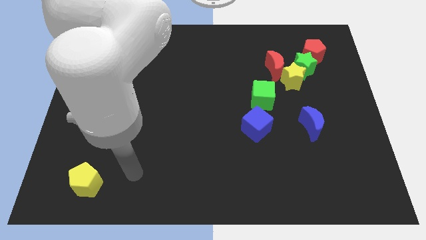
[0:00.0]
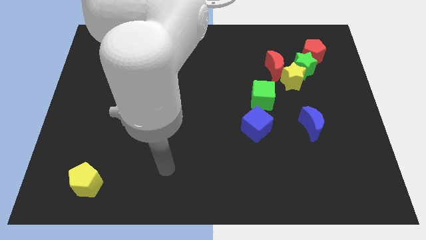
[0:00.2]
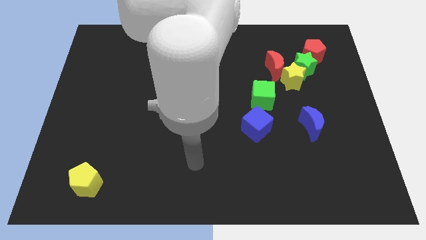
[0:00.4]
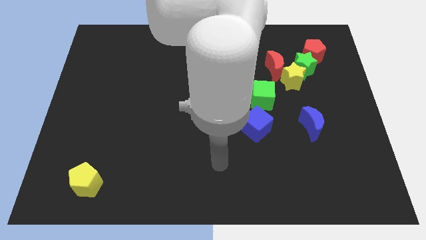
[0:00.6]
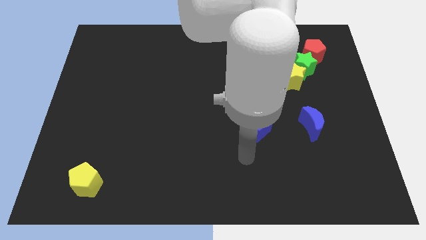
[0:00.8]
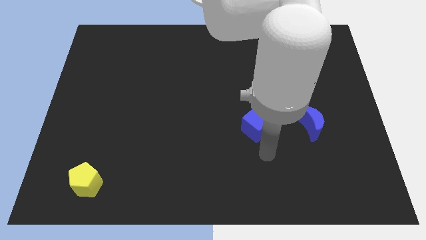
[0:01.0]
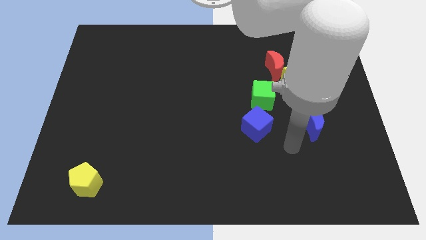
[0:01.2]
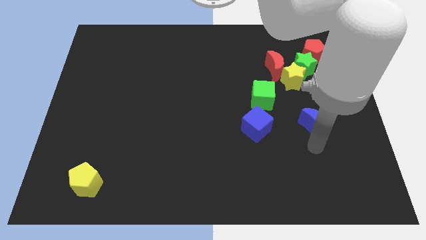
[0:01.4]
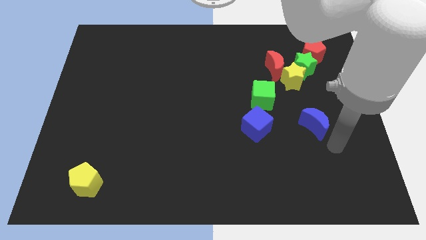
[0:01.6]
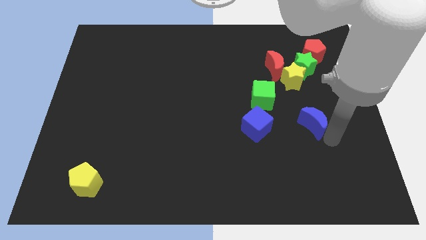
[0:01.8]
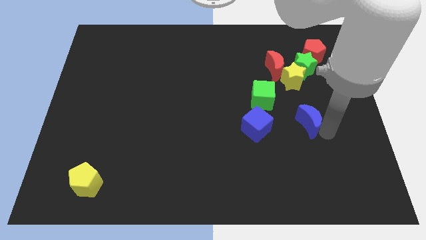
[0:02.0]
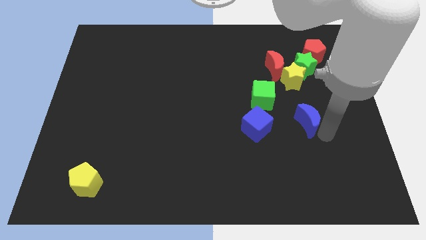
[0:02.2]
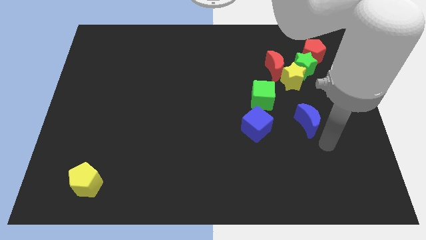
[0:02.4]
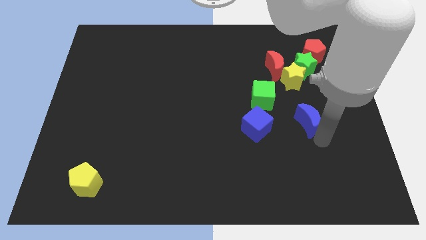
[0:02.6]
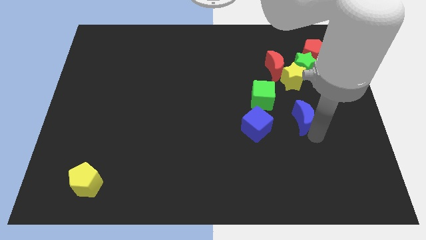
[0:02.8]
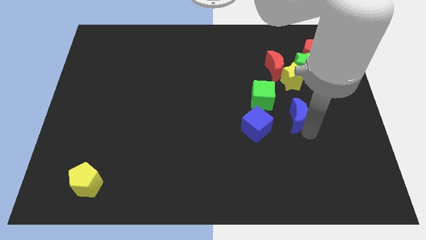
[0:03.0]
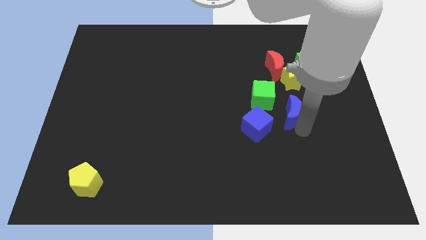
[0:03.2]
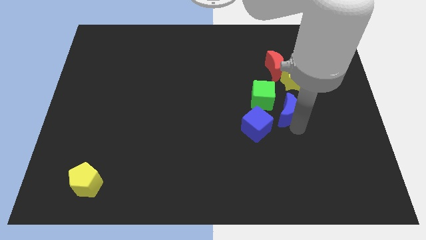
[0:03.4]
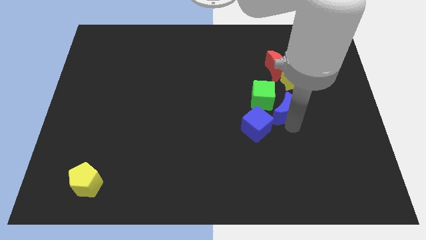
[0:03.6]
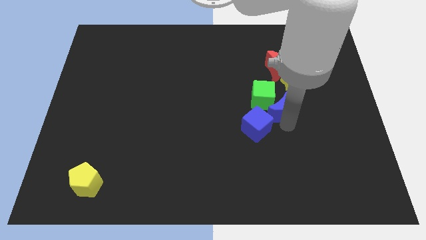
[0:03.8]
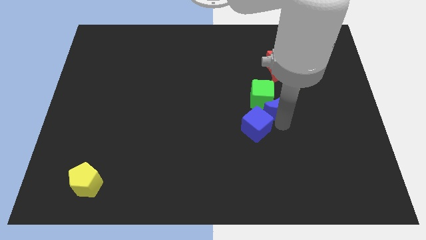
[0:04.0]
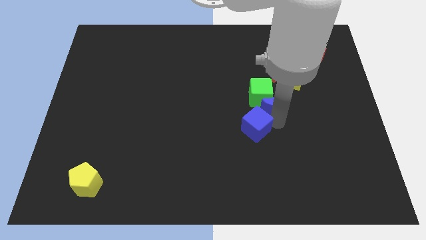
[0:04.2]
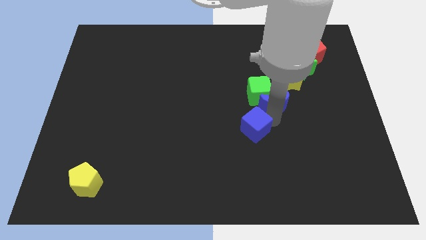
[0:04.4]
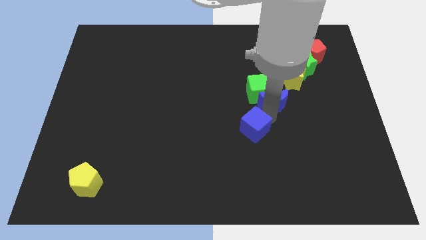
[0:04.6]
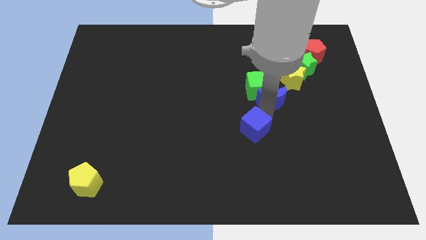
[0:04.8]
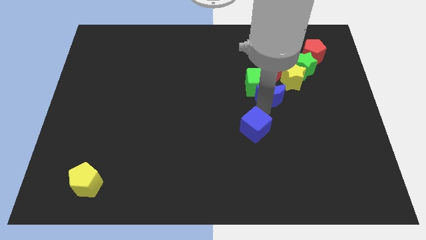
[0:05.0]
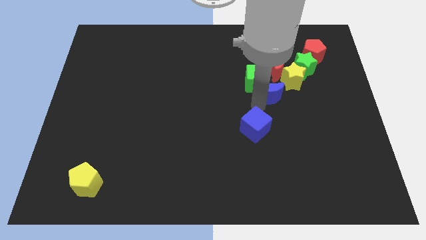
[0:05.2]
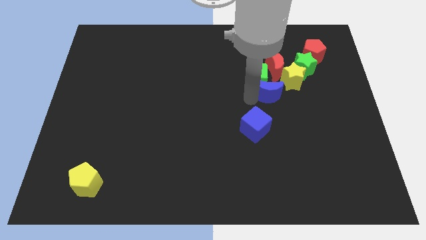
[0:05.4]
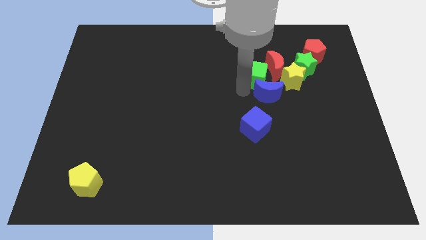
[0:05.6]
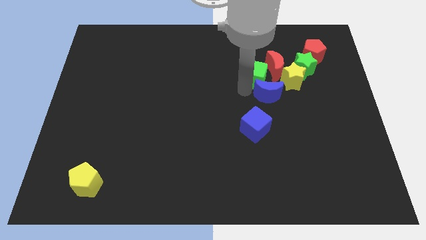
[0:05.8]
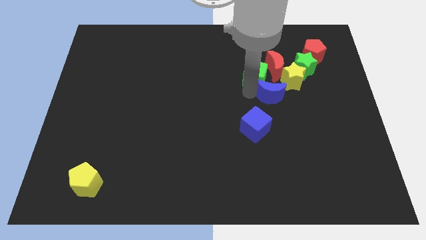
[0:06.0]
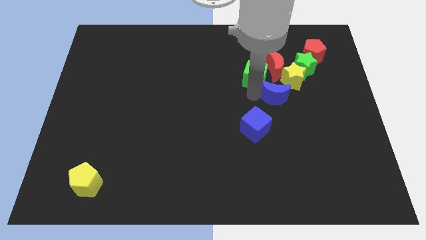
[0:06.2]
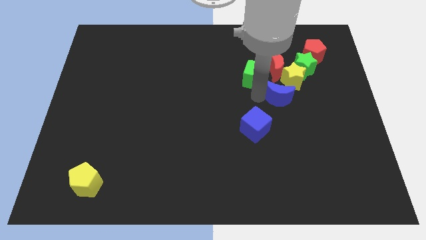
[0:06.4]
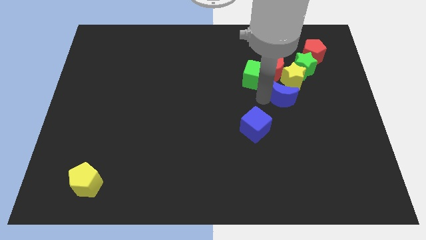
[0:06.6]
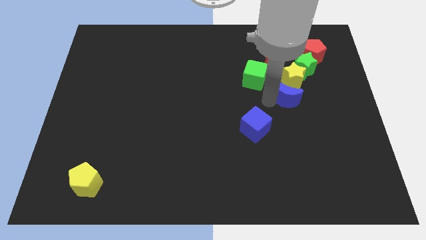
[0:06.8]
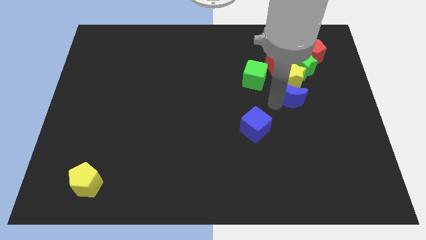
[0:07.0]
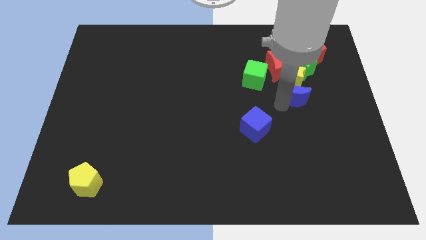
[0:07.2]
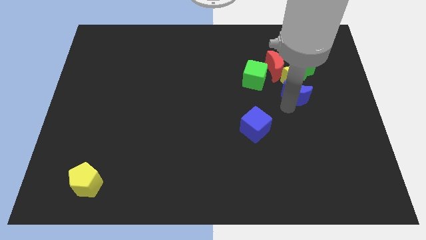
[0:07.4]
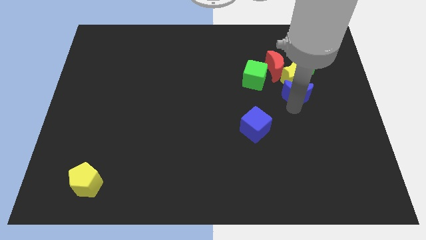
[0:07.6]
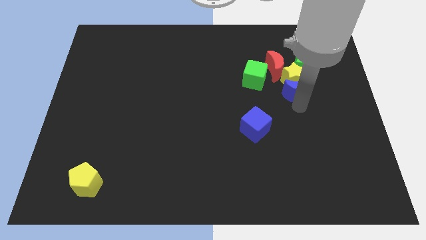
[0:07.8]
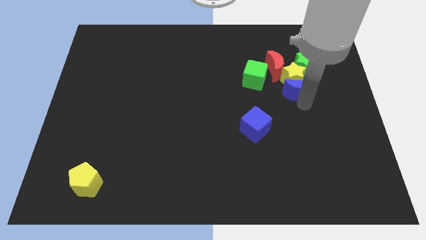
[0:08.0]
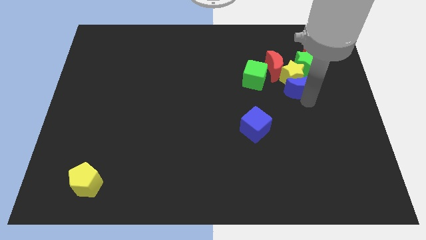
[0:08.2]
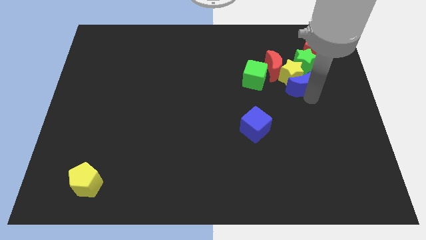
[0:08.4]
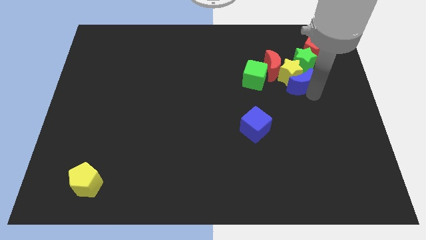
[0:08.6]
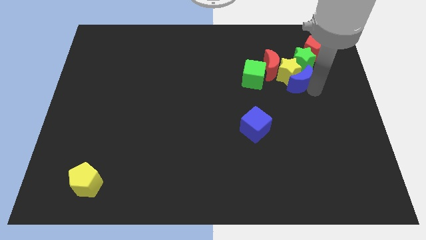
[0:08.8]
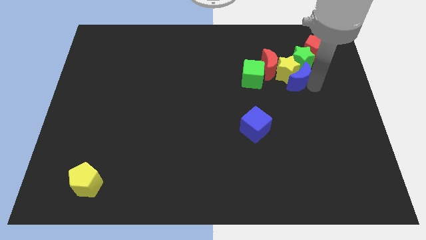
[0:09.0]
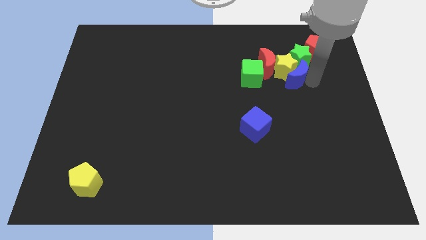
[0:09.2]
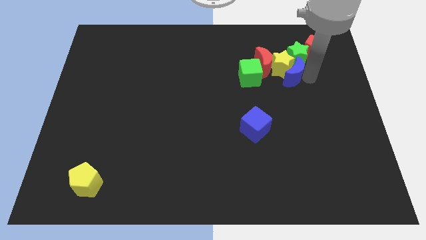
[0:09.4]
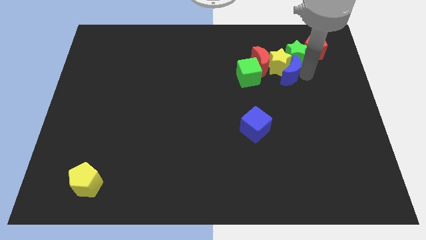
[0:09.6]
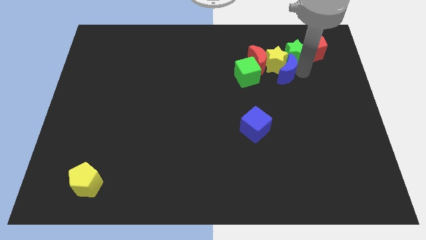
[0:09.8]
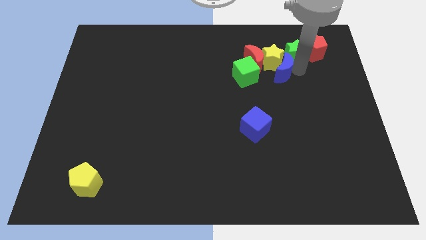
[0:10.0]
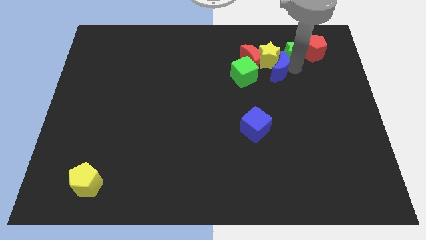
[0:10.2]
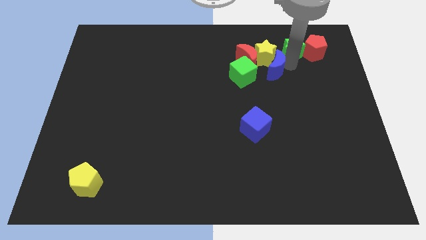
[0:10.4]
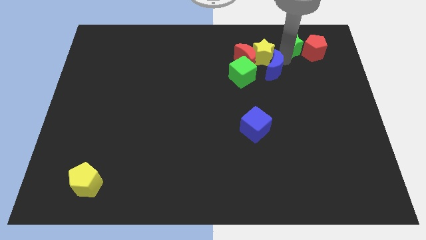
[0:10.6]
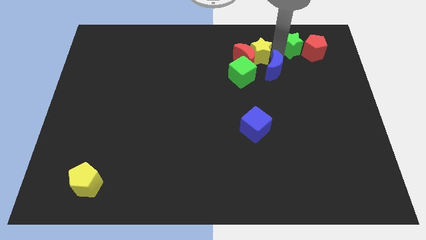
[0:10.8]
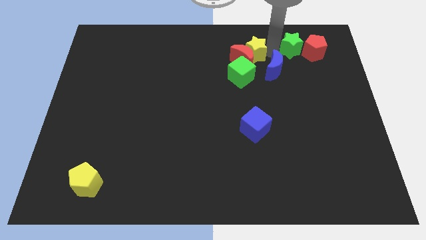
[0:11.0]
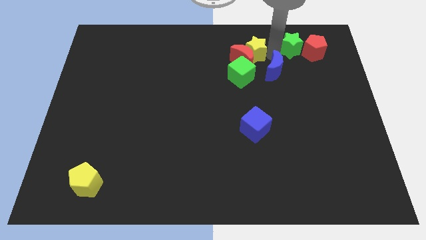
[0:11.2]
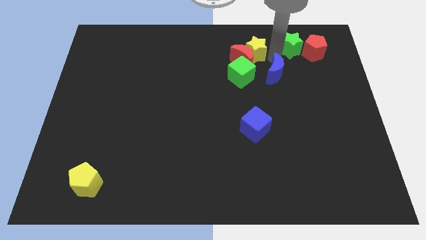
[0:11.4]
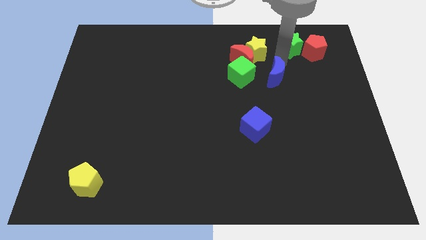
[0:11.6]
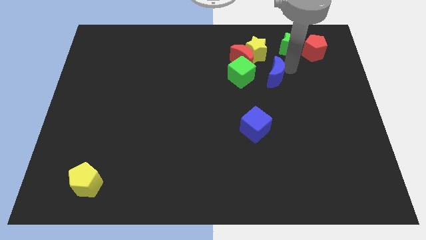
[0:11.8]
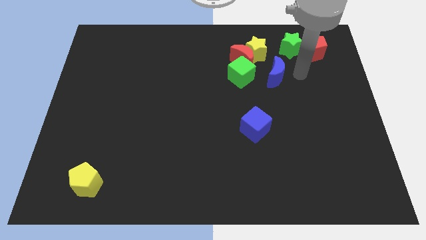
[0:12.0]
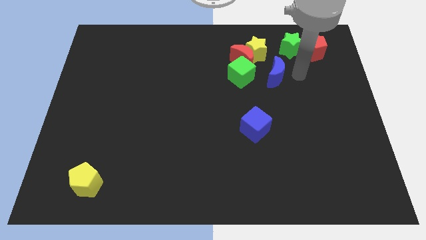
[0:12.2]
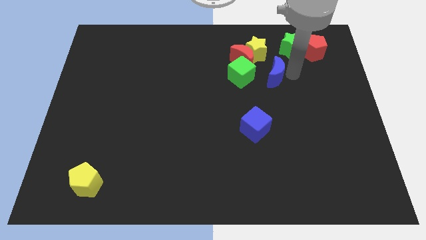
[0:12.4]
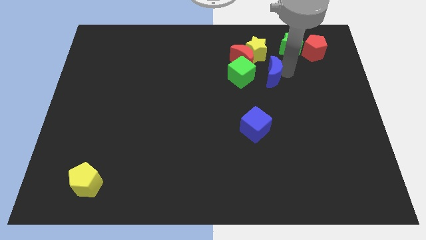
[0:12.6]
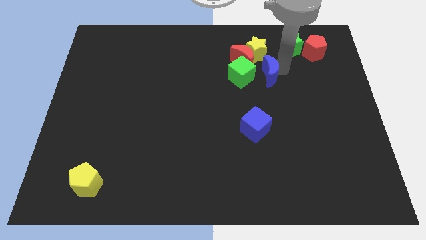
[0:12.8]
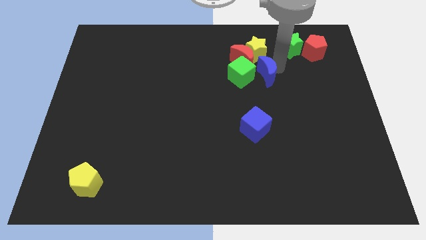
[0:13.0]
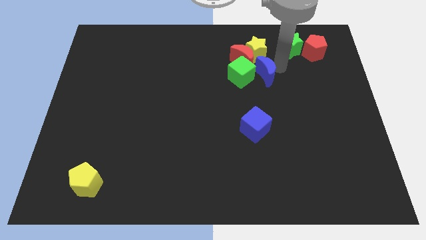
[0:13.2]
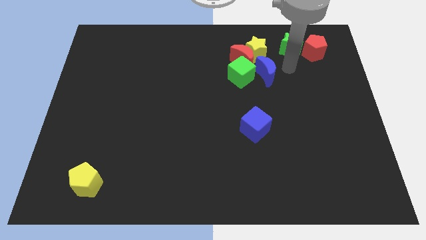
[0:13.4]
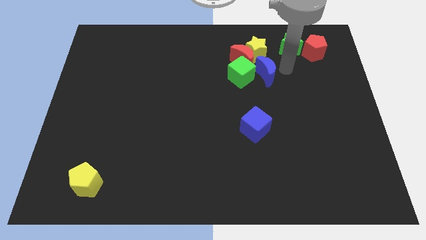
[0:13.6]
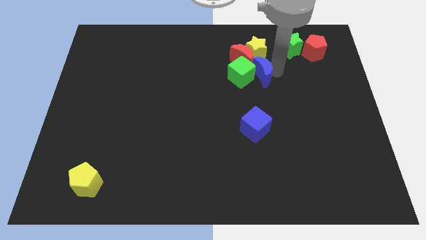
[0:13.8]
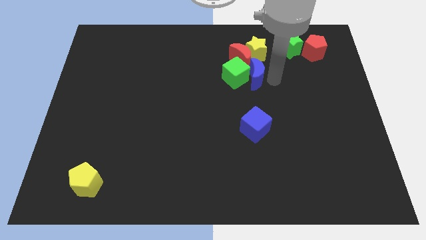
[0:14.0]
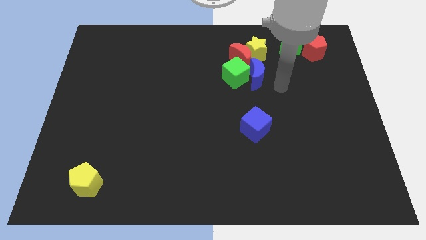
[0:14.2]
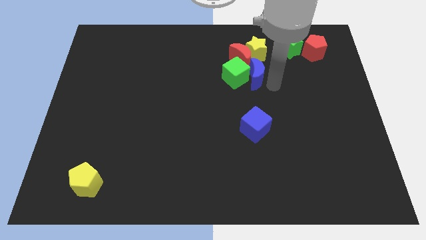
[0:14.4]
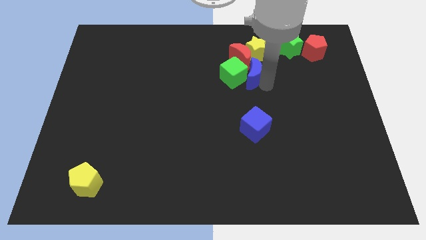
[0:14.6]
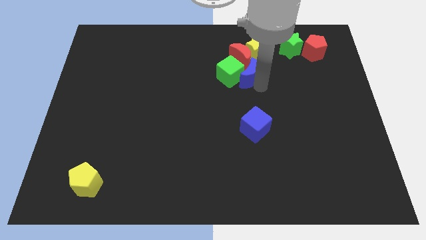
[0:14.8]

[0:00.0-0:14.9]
slide the blue moon up and left

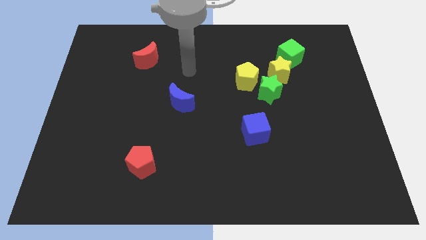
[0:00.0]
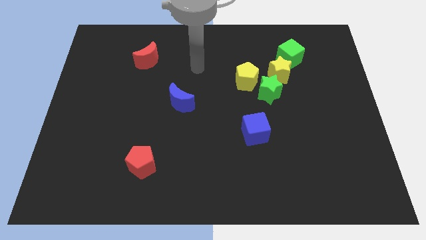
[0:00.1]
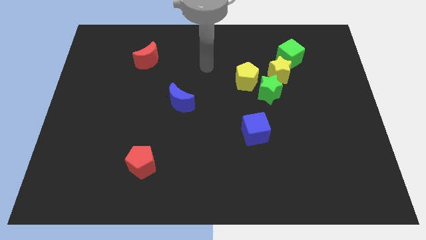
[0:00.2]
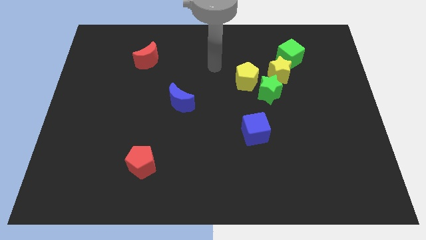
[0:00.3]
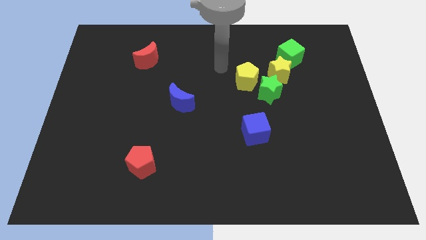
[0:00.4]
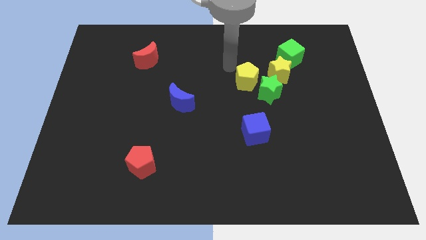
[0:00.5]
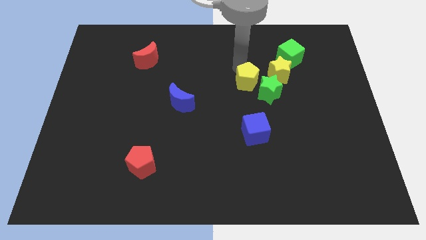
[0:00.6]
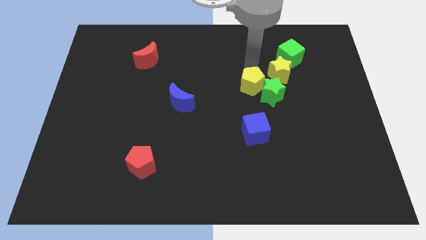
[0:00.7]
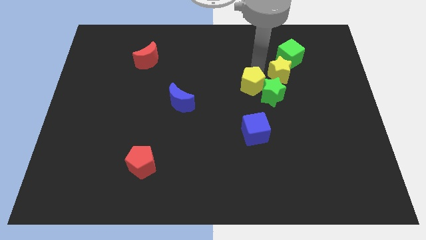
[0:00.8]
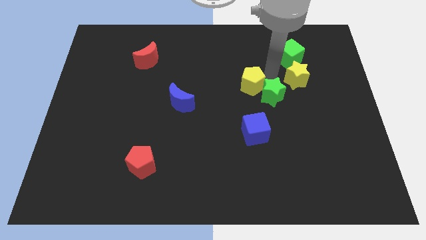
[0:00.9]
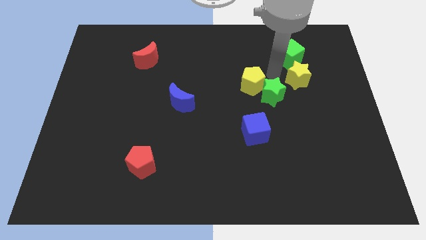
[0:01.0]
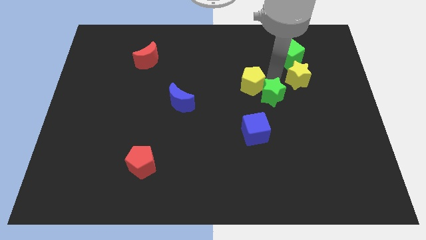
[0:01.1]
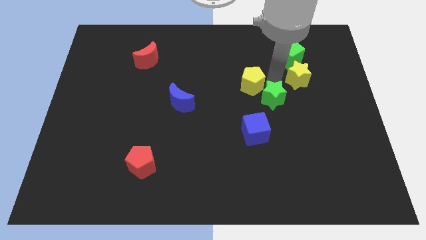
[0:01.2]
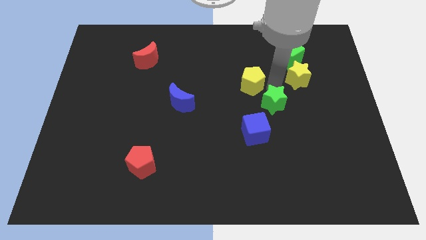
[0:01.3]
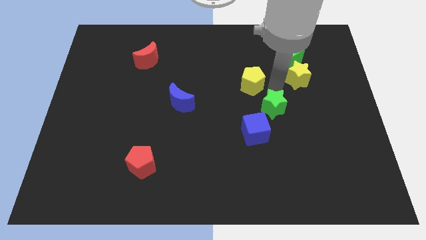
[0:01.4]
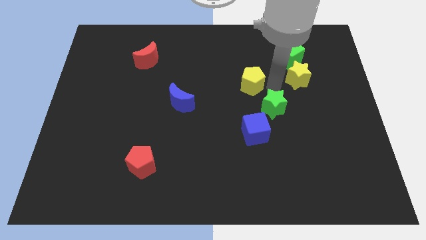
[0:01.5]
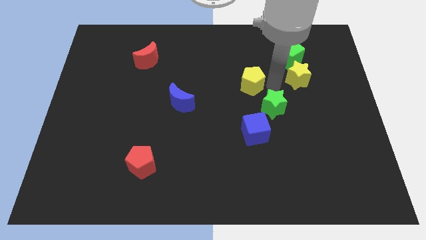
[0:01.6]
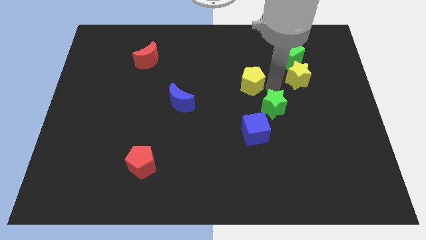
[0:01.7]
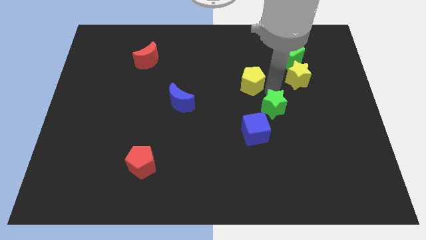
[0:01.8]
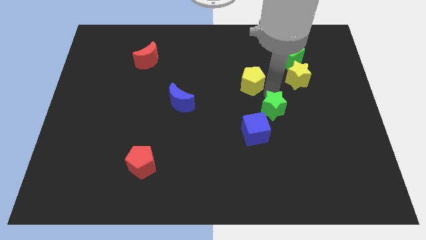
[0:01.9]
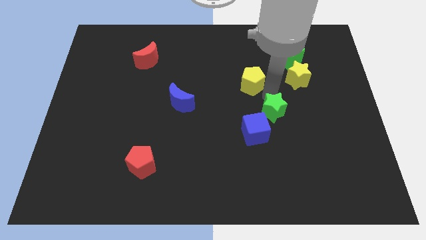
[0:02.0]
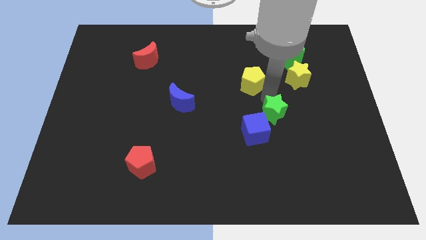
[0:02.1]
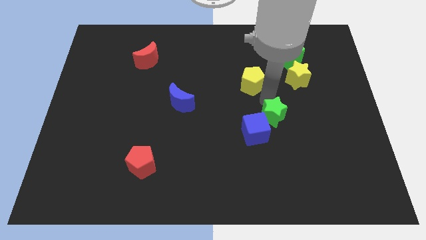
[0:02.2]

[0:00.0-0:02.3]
slightly move the green star downwards
